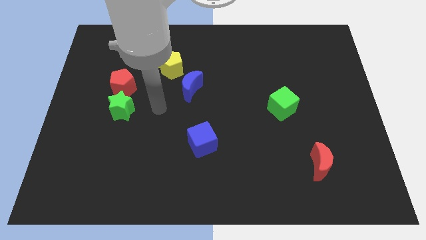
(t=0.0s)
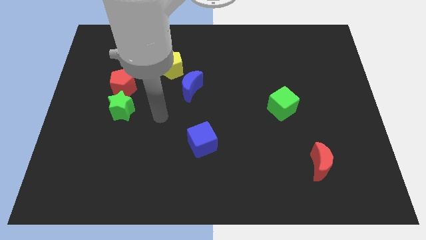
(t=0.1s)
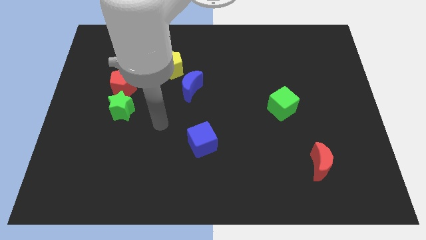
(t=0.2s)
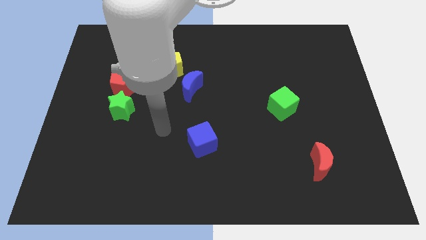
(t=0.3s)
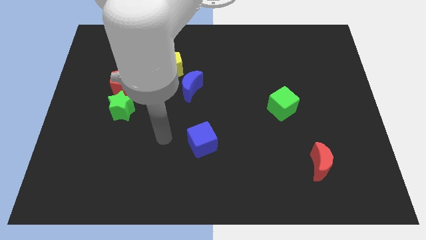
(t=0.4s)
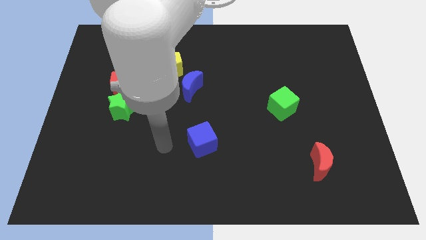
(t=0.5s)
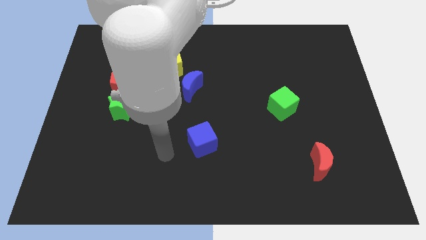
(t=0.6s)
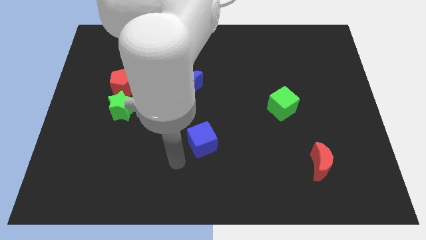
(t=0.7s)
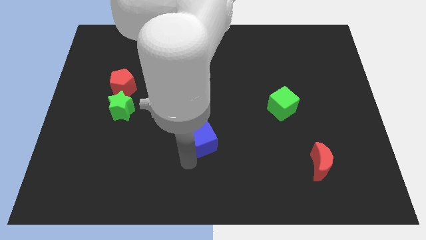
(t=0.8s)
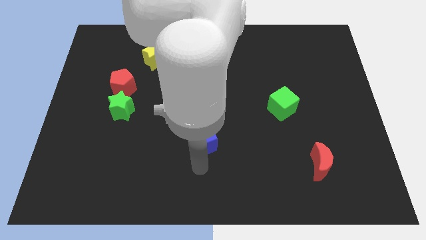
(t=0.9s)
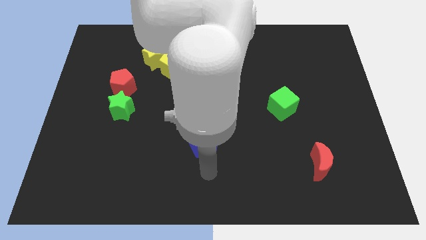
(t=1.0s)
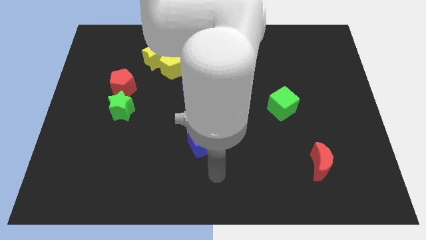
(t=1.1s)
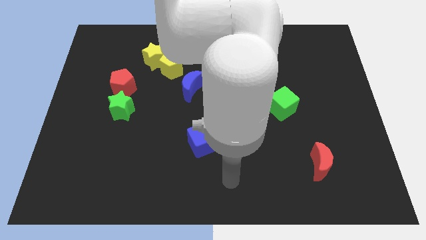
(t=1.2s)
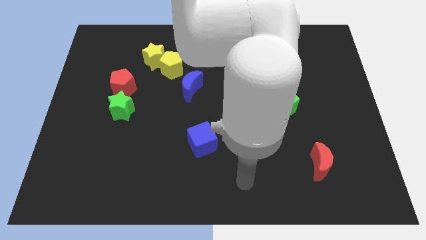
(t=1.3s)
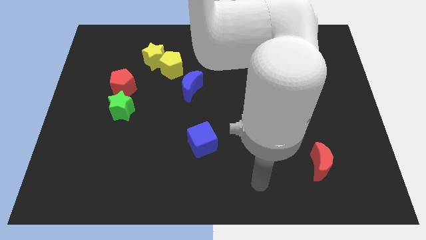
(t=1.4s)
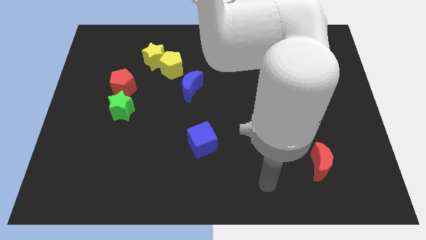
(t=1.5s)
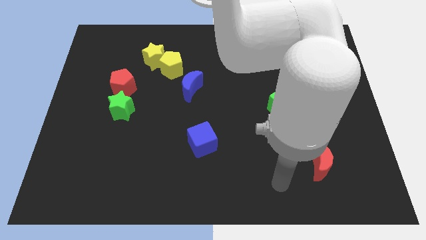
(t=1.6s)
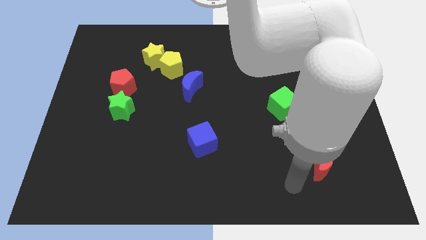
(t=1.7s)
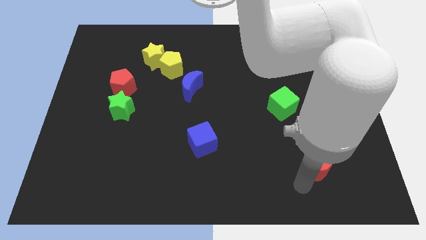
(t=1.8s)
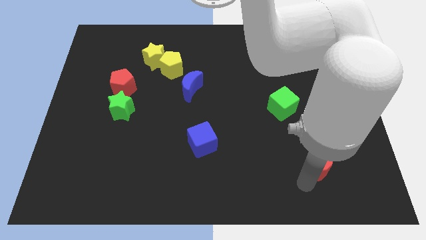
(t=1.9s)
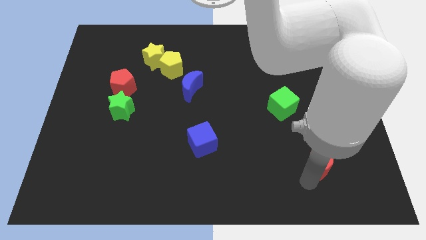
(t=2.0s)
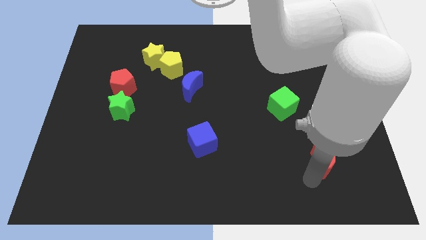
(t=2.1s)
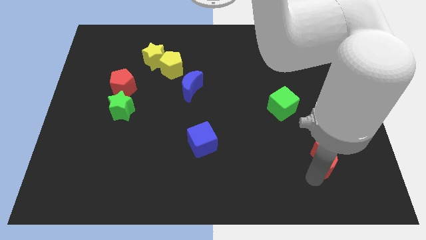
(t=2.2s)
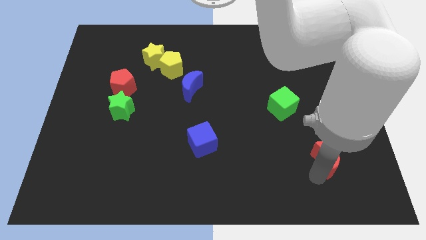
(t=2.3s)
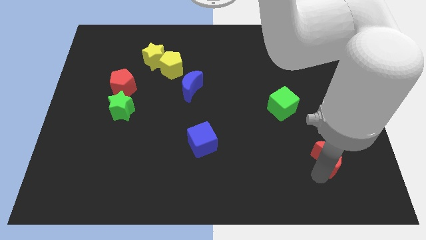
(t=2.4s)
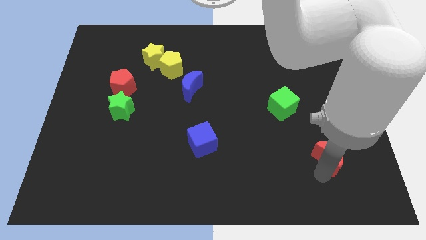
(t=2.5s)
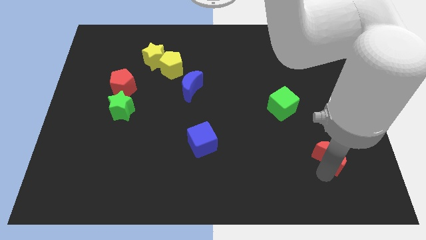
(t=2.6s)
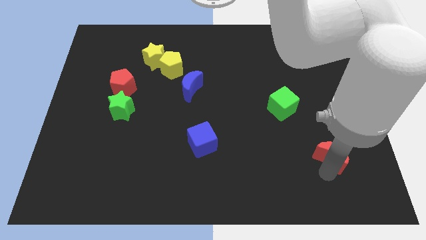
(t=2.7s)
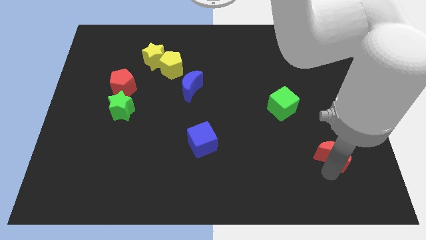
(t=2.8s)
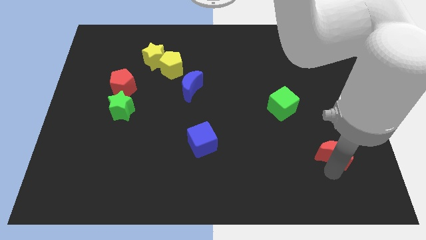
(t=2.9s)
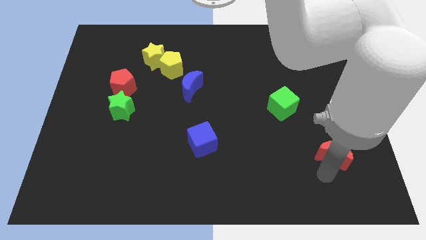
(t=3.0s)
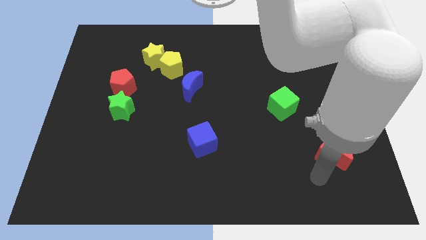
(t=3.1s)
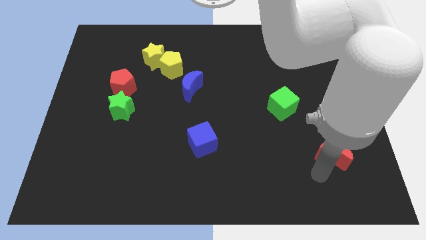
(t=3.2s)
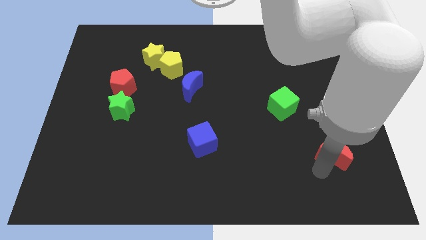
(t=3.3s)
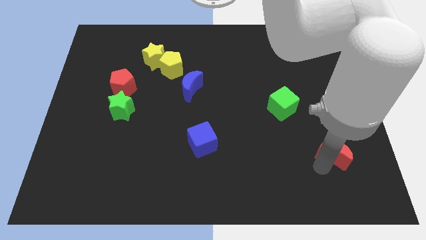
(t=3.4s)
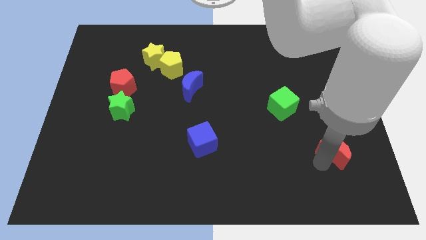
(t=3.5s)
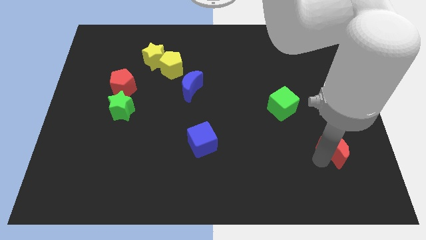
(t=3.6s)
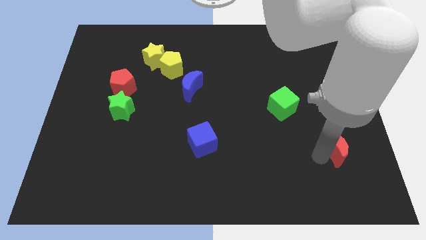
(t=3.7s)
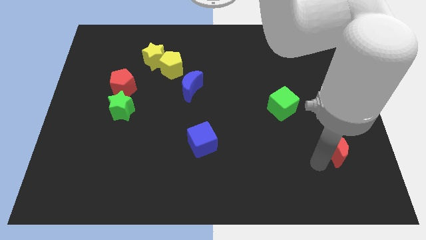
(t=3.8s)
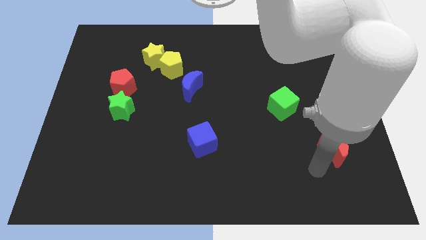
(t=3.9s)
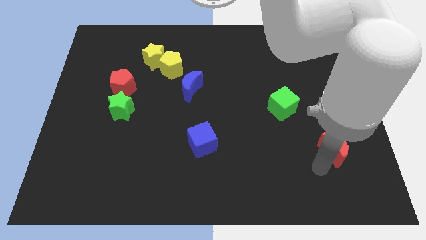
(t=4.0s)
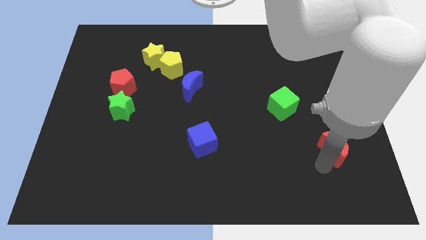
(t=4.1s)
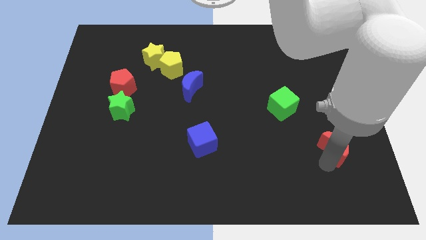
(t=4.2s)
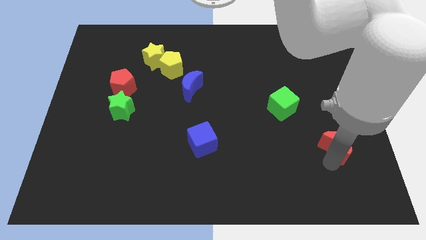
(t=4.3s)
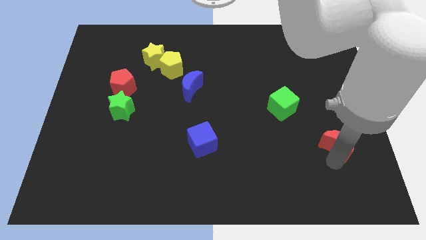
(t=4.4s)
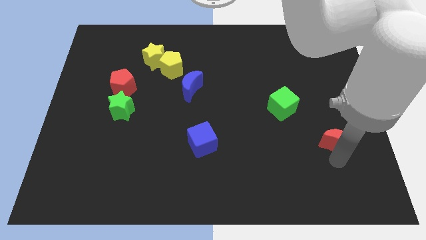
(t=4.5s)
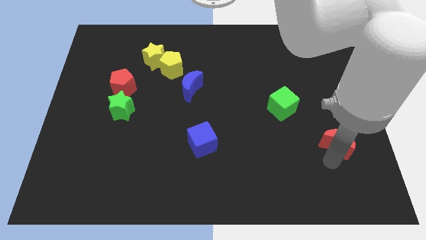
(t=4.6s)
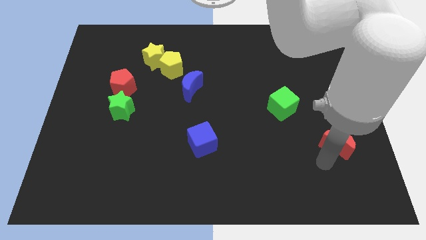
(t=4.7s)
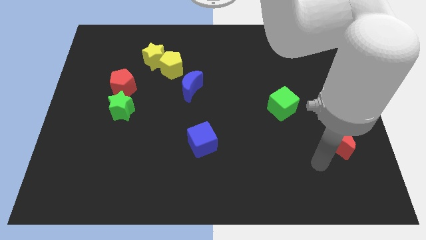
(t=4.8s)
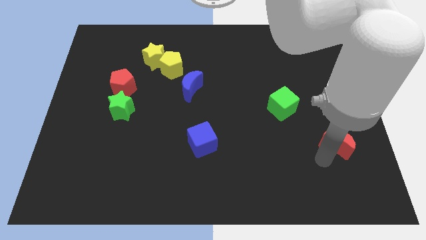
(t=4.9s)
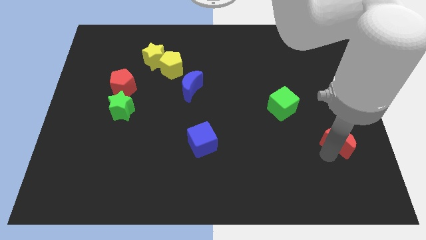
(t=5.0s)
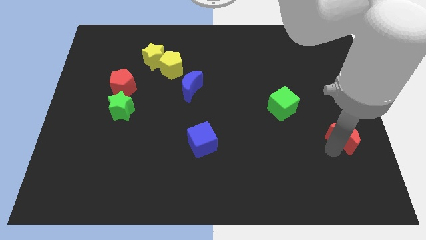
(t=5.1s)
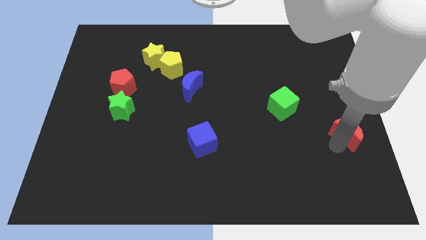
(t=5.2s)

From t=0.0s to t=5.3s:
move the red moon to the right side

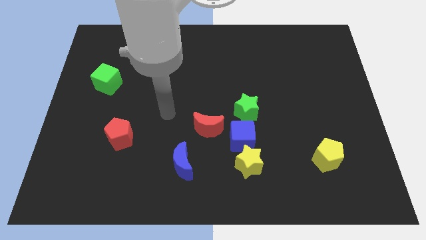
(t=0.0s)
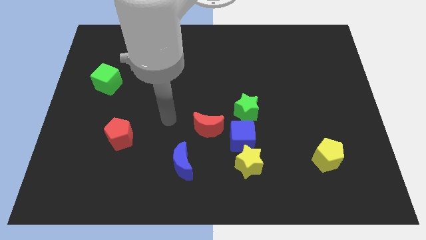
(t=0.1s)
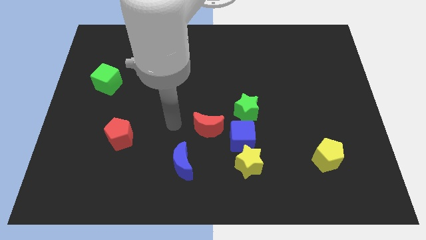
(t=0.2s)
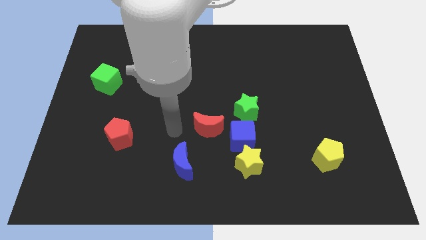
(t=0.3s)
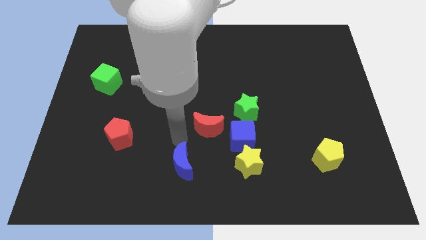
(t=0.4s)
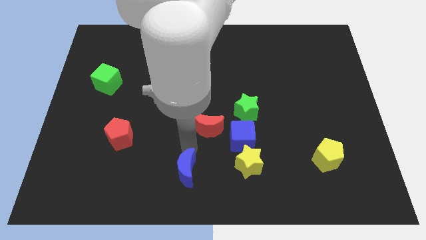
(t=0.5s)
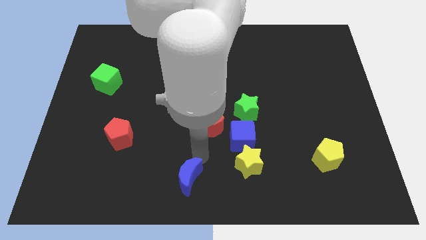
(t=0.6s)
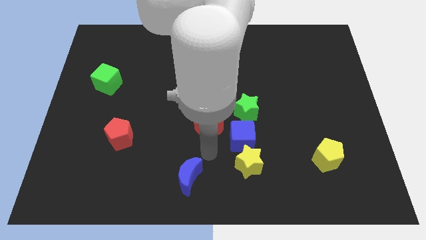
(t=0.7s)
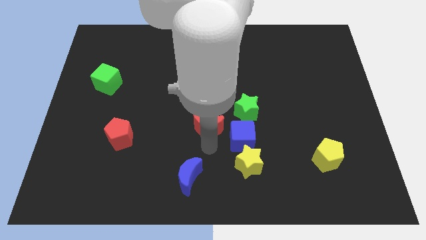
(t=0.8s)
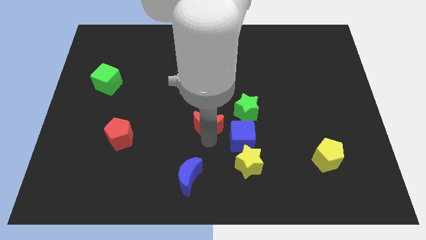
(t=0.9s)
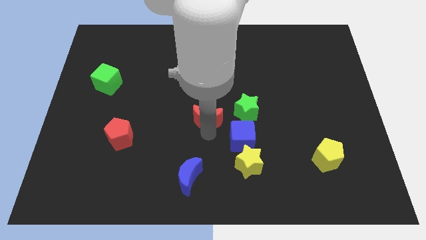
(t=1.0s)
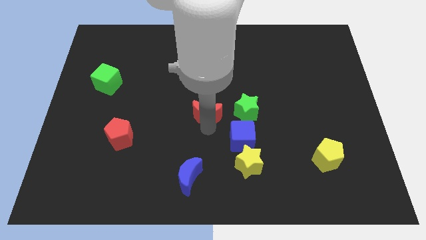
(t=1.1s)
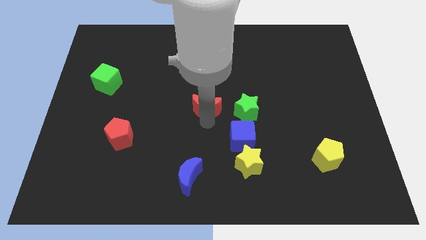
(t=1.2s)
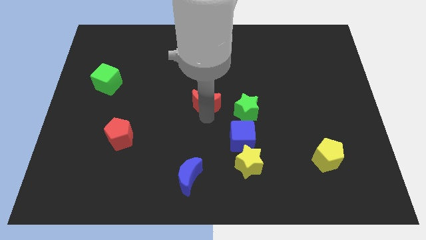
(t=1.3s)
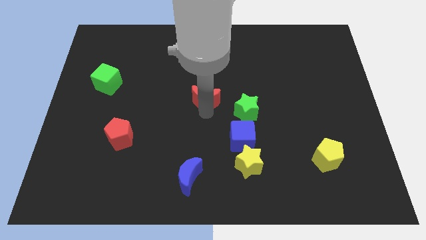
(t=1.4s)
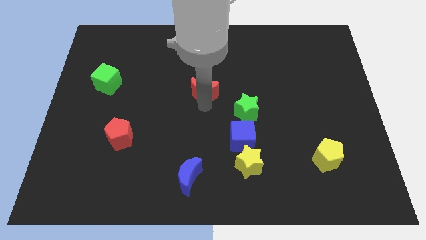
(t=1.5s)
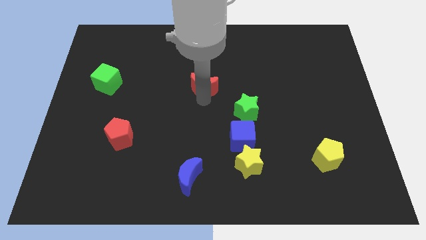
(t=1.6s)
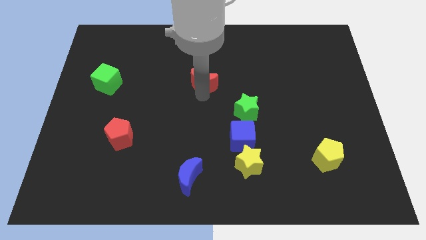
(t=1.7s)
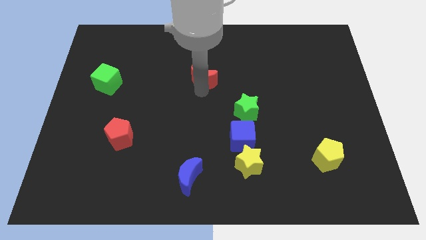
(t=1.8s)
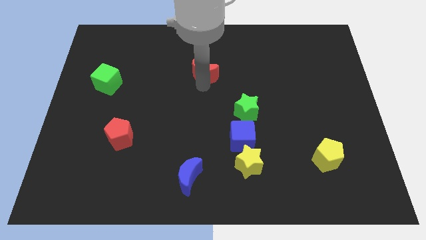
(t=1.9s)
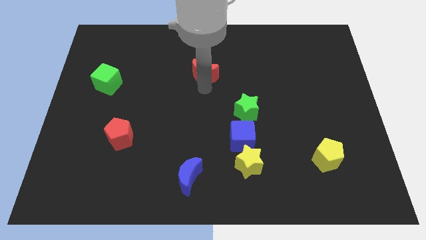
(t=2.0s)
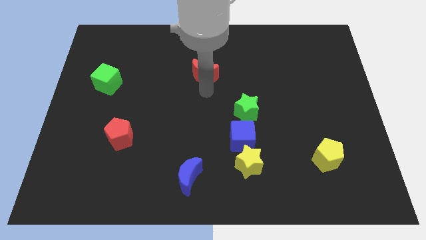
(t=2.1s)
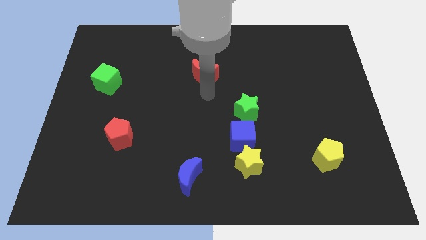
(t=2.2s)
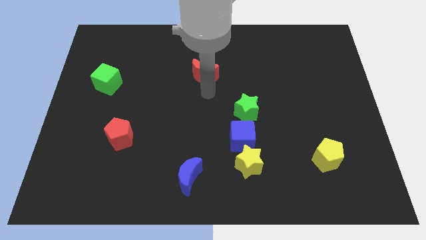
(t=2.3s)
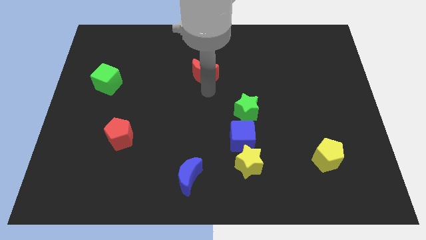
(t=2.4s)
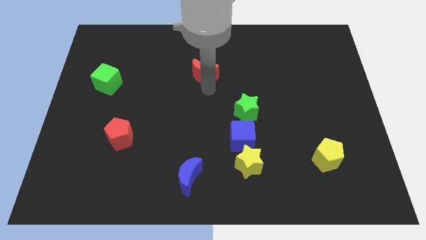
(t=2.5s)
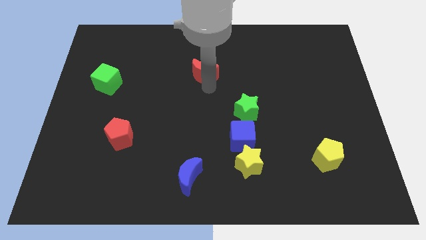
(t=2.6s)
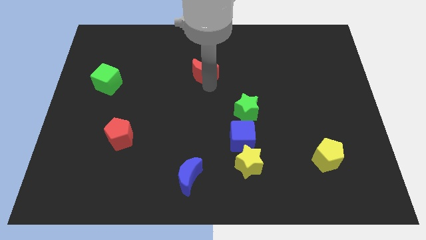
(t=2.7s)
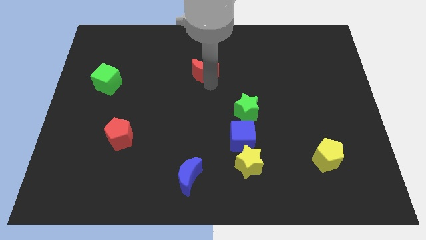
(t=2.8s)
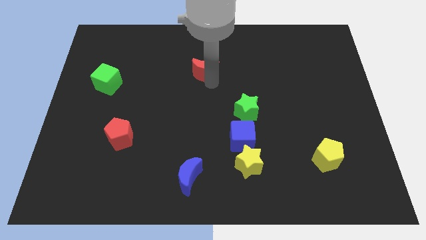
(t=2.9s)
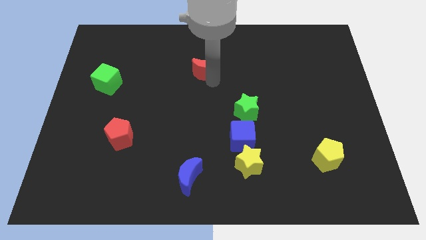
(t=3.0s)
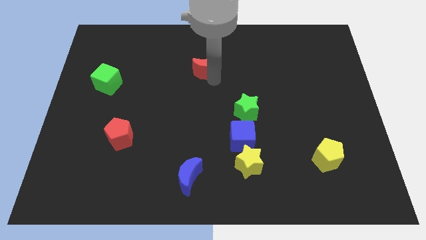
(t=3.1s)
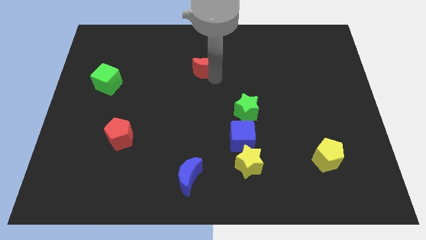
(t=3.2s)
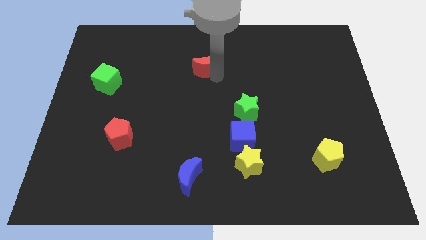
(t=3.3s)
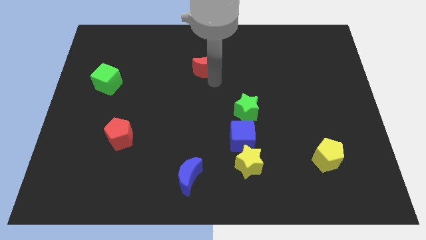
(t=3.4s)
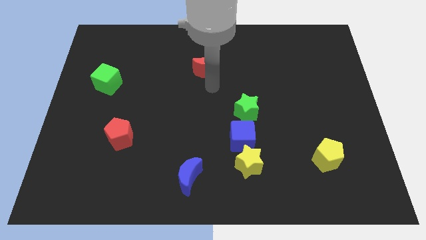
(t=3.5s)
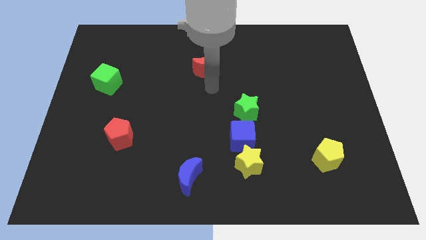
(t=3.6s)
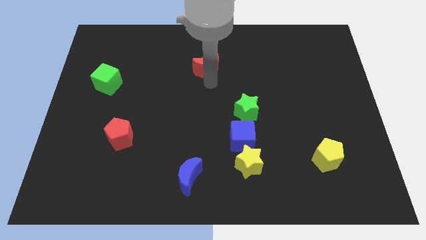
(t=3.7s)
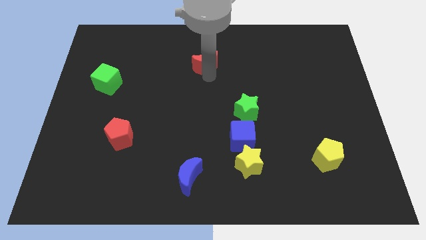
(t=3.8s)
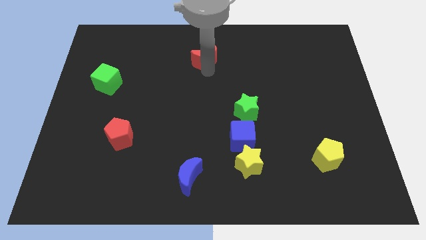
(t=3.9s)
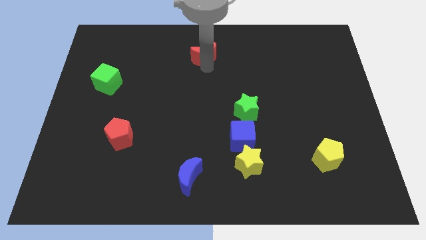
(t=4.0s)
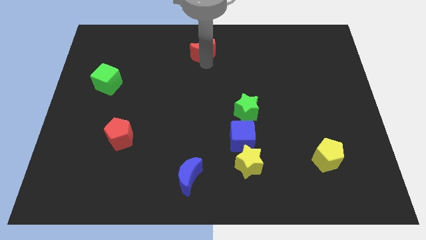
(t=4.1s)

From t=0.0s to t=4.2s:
push the red moon to the top
